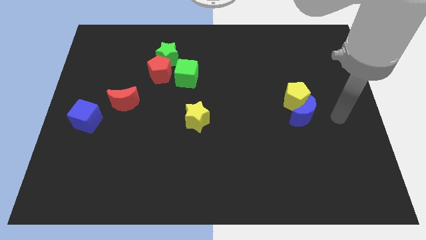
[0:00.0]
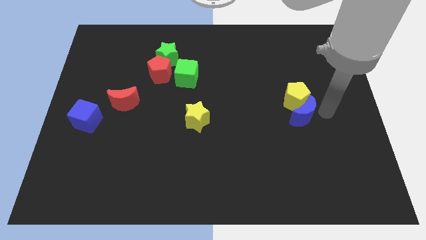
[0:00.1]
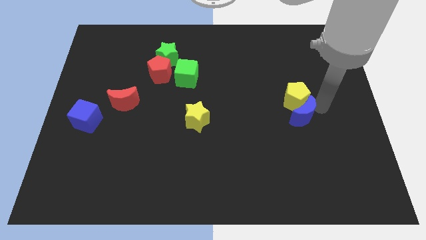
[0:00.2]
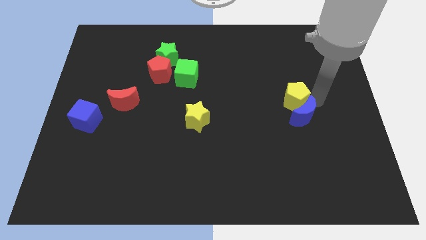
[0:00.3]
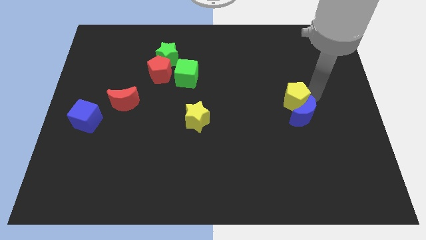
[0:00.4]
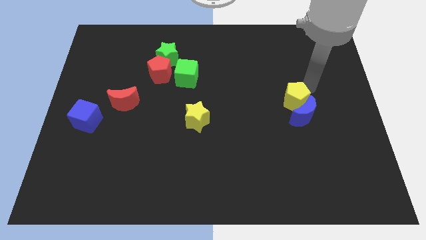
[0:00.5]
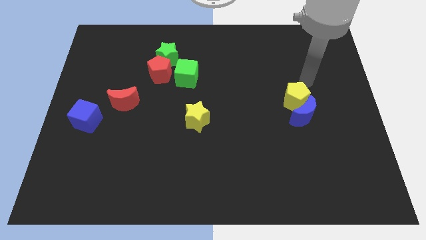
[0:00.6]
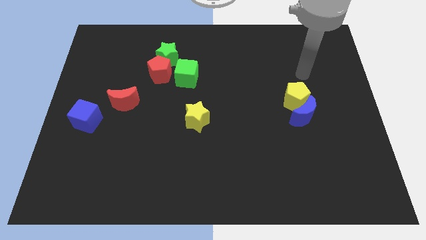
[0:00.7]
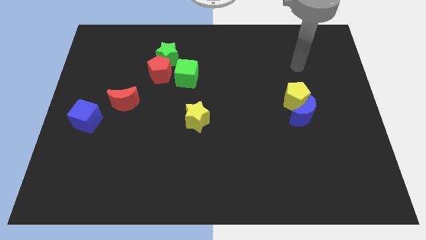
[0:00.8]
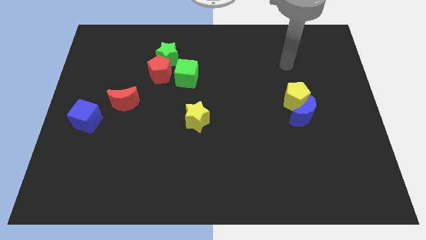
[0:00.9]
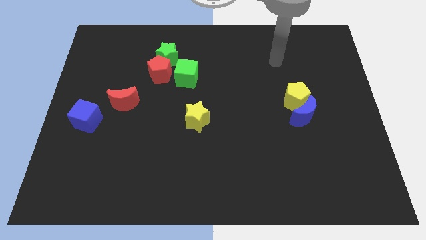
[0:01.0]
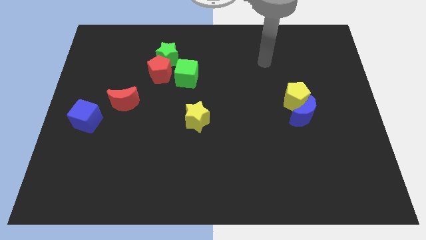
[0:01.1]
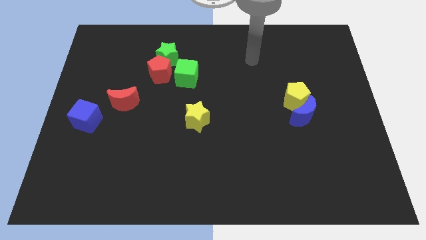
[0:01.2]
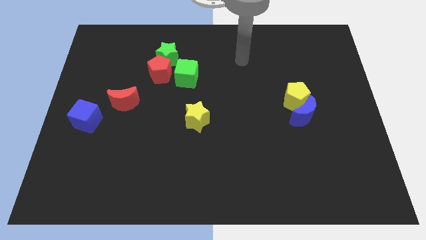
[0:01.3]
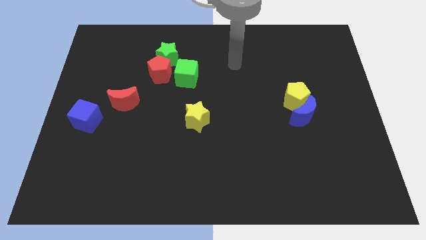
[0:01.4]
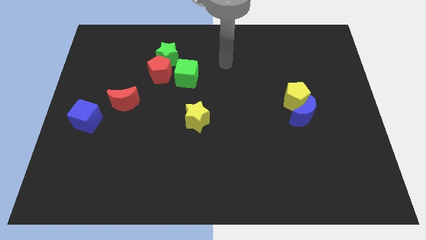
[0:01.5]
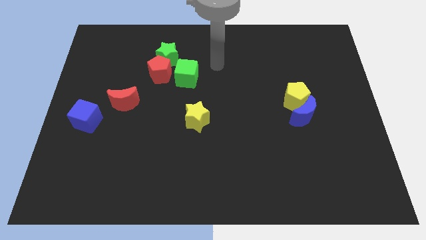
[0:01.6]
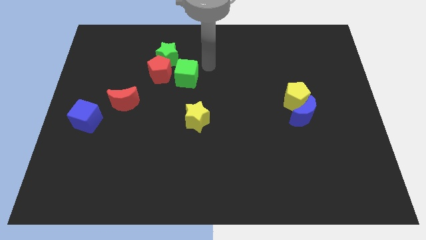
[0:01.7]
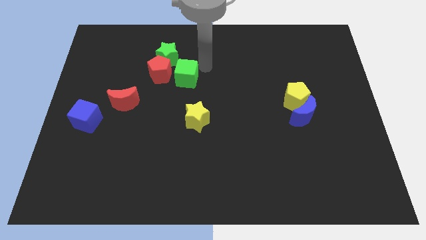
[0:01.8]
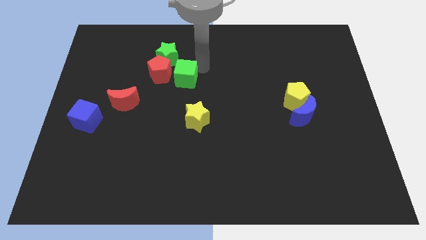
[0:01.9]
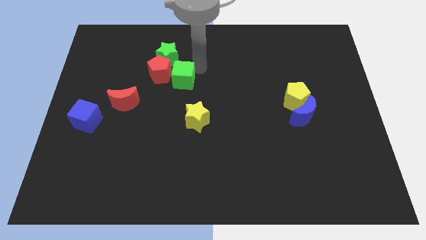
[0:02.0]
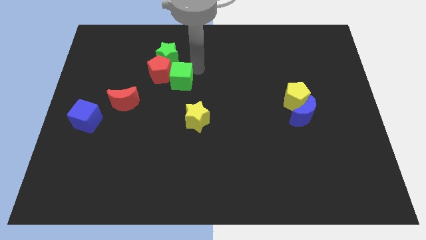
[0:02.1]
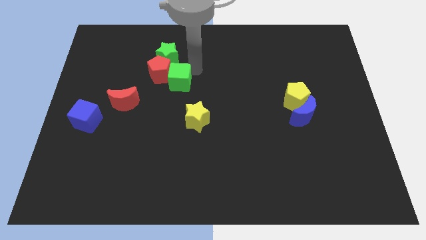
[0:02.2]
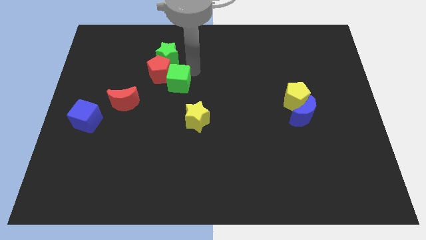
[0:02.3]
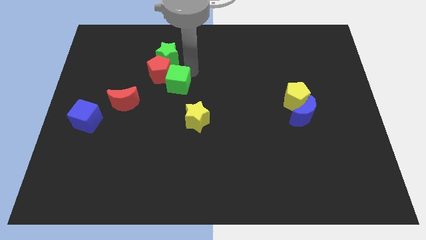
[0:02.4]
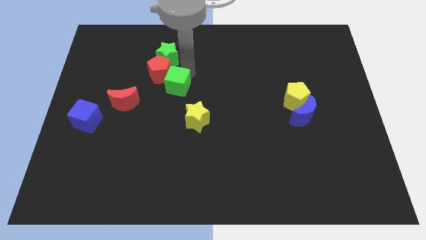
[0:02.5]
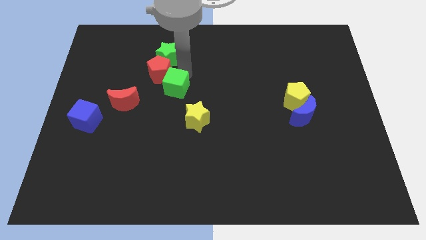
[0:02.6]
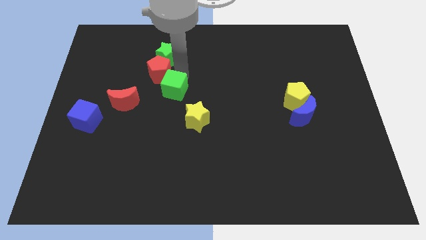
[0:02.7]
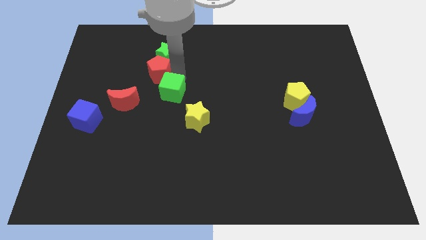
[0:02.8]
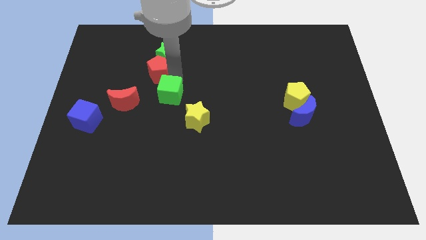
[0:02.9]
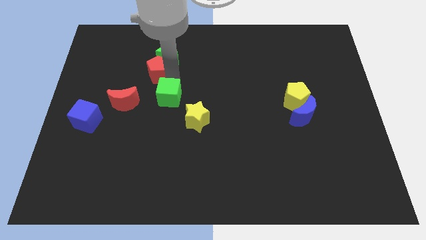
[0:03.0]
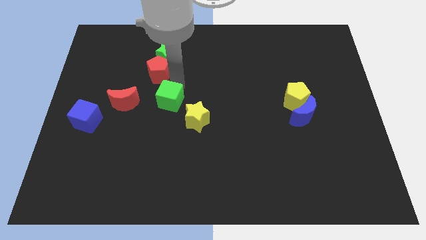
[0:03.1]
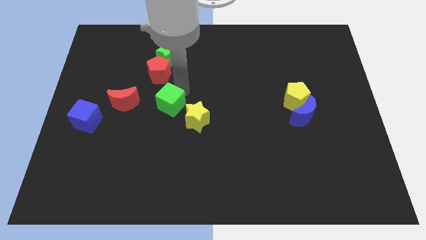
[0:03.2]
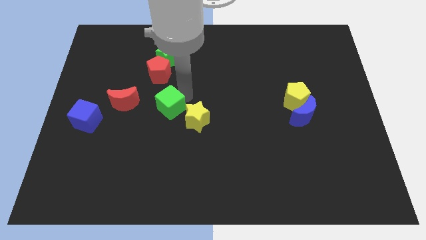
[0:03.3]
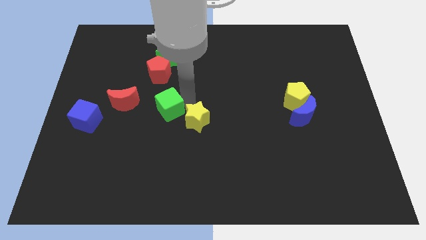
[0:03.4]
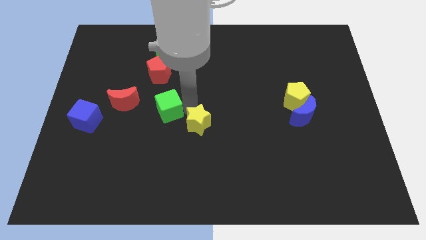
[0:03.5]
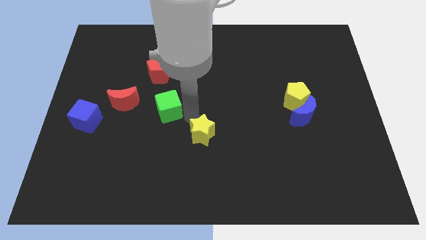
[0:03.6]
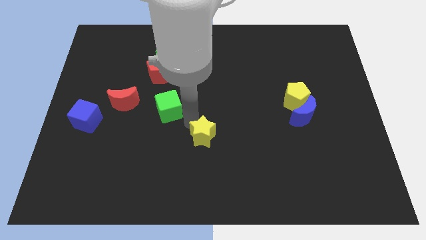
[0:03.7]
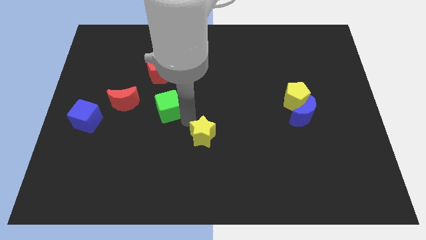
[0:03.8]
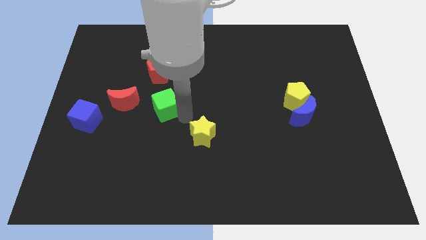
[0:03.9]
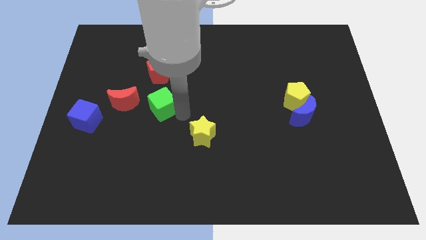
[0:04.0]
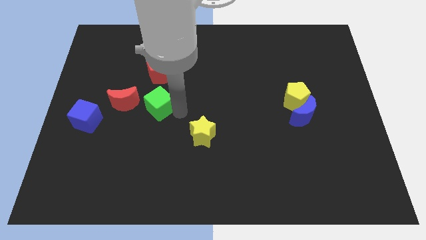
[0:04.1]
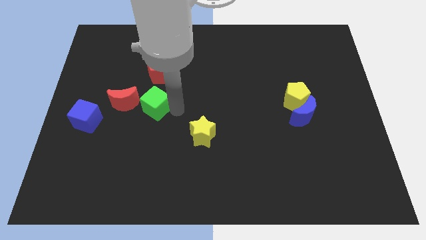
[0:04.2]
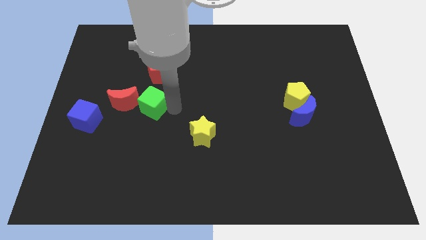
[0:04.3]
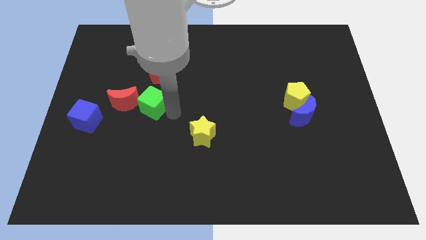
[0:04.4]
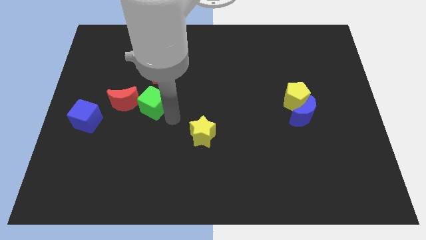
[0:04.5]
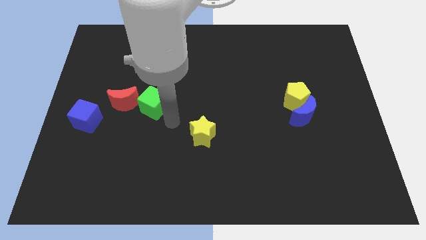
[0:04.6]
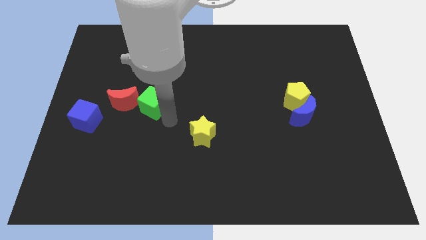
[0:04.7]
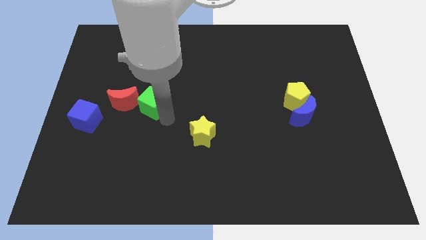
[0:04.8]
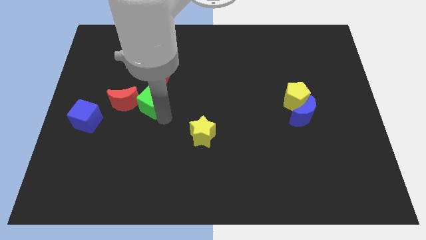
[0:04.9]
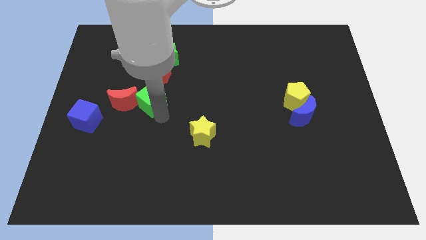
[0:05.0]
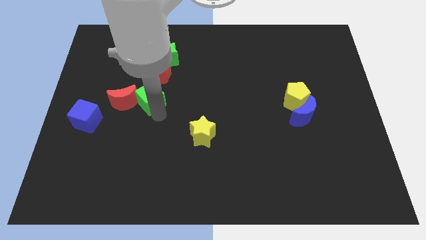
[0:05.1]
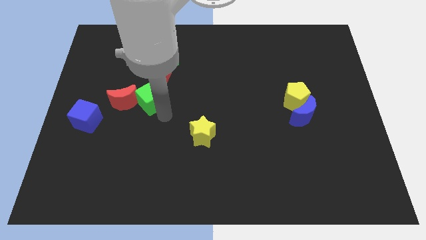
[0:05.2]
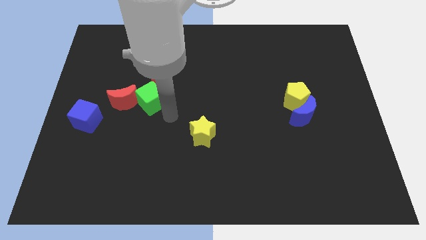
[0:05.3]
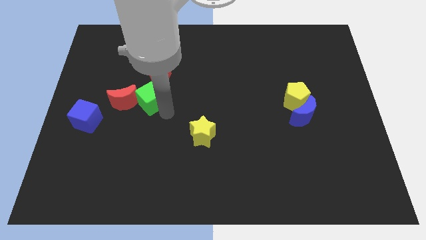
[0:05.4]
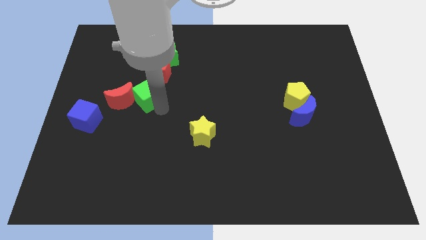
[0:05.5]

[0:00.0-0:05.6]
push the green cube to the bottom left of the red pentagon
